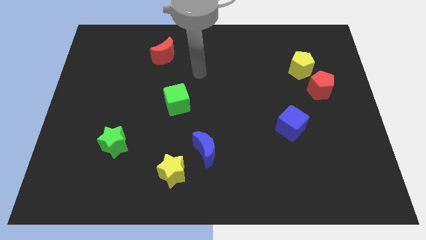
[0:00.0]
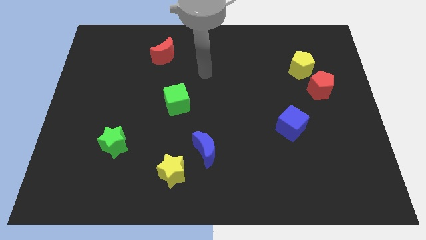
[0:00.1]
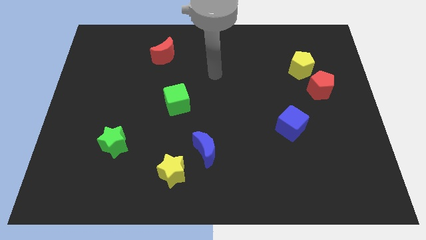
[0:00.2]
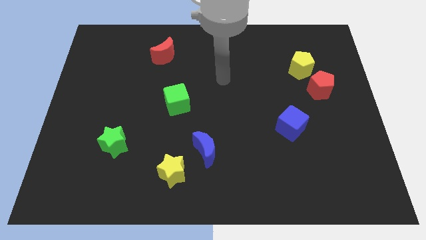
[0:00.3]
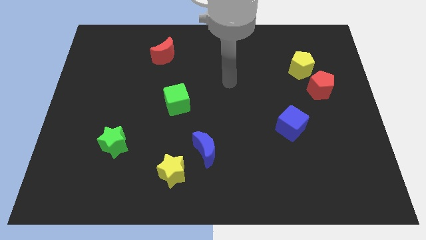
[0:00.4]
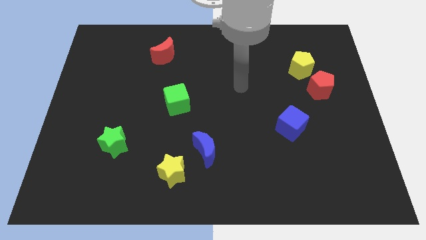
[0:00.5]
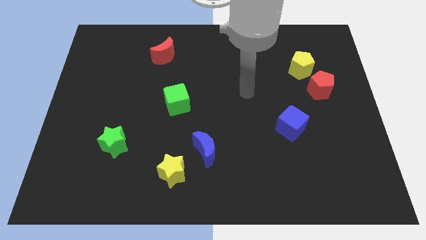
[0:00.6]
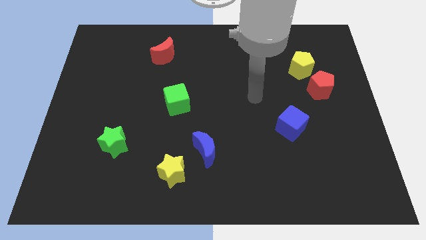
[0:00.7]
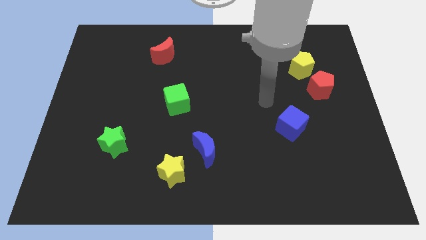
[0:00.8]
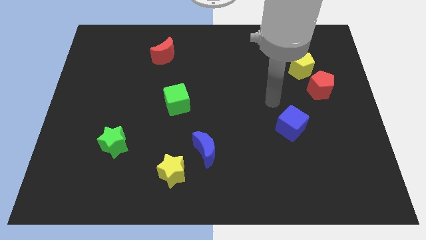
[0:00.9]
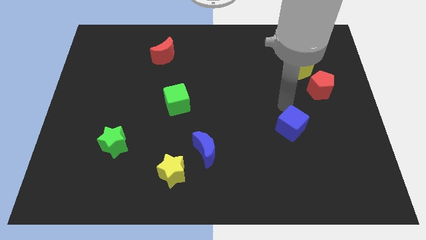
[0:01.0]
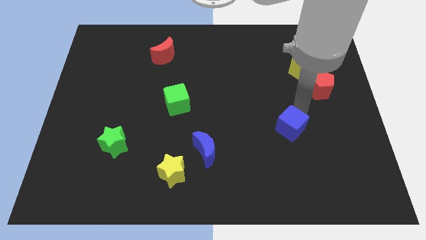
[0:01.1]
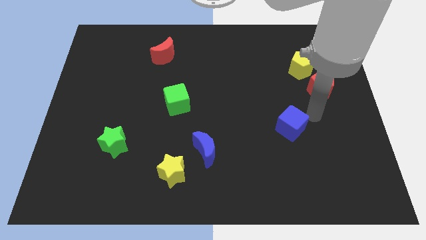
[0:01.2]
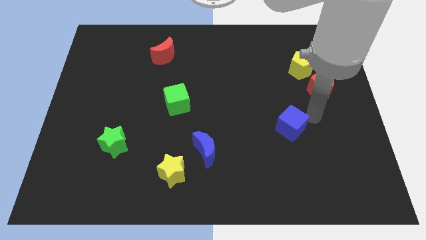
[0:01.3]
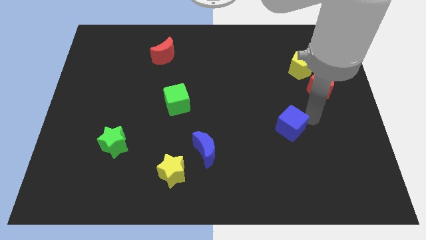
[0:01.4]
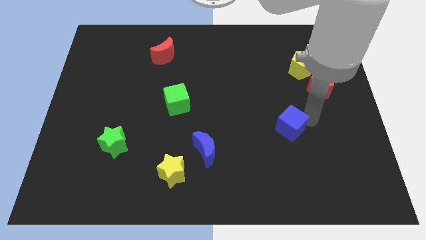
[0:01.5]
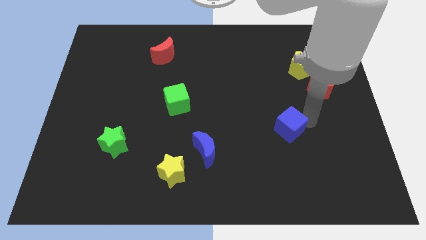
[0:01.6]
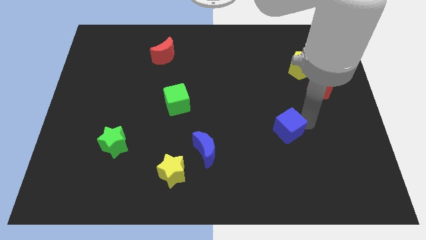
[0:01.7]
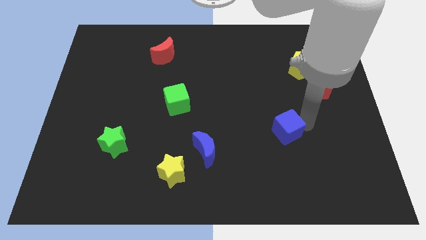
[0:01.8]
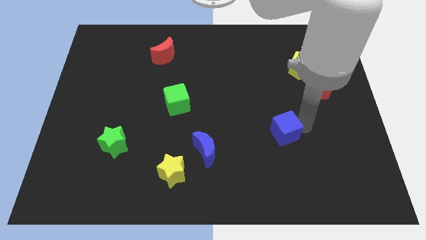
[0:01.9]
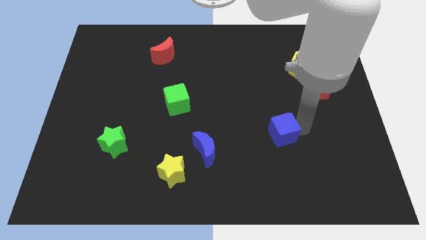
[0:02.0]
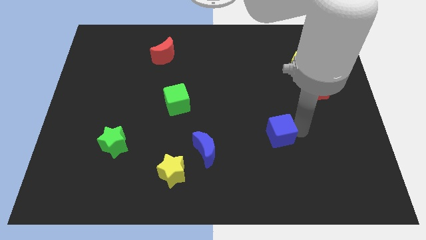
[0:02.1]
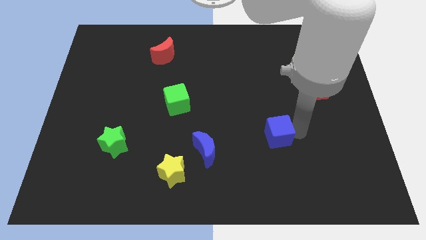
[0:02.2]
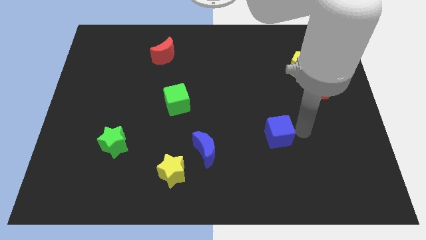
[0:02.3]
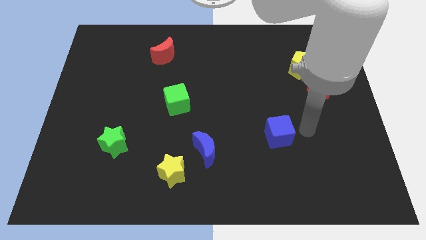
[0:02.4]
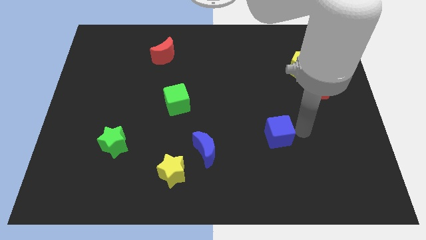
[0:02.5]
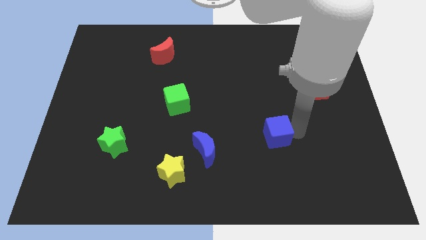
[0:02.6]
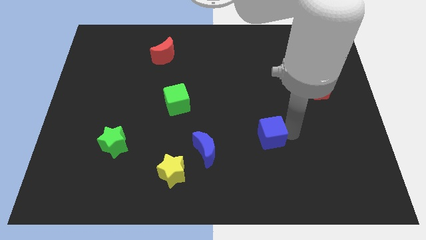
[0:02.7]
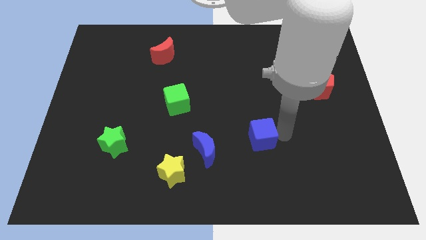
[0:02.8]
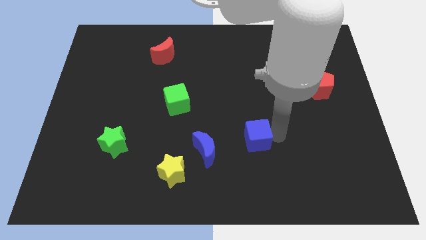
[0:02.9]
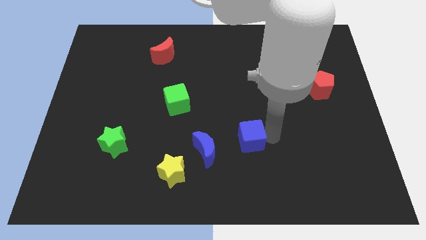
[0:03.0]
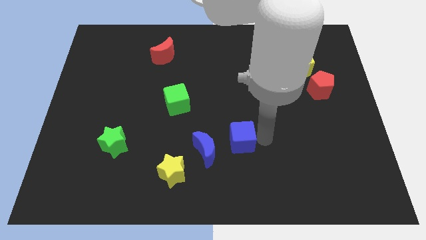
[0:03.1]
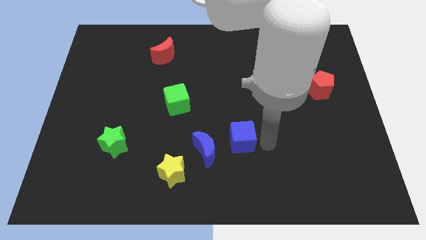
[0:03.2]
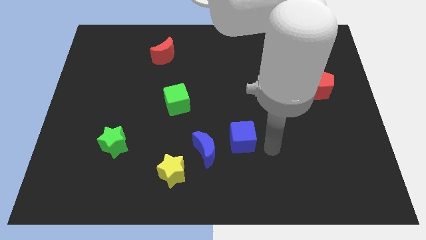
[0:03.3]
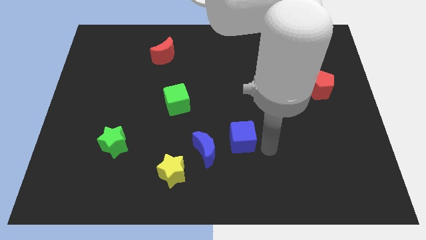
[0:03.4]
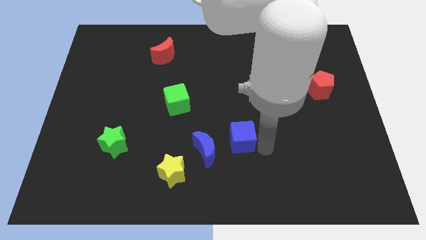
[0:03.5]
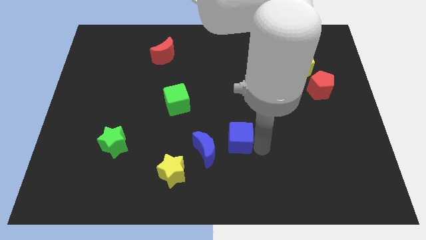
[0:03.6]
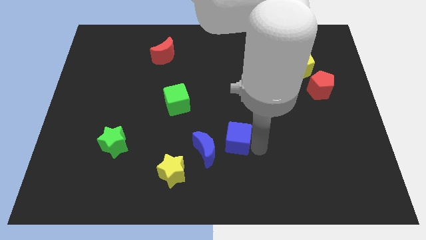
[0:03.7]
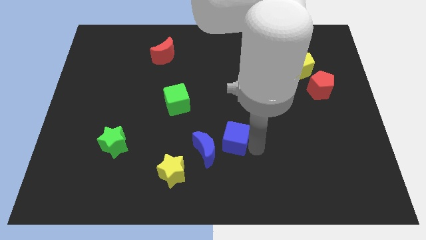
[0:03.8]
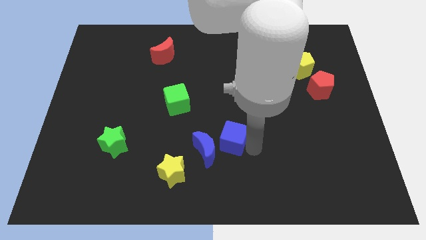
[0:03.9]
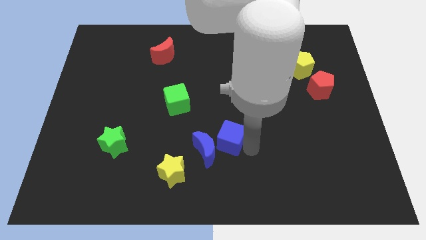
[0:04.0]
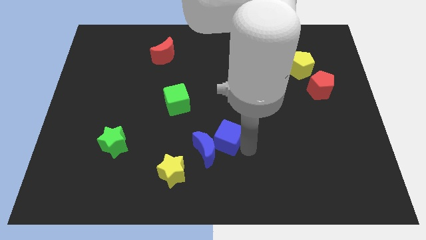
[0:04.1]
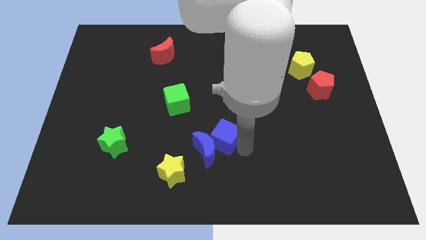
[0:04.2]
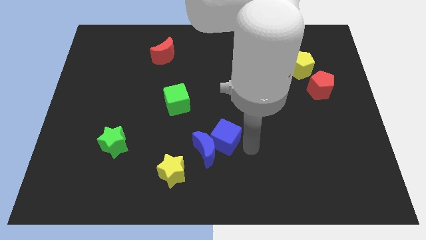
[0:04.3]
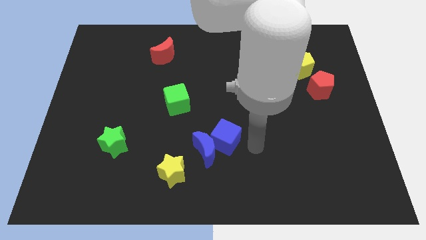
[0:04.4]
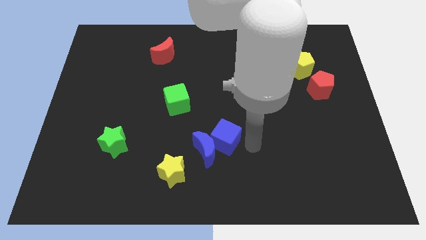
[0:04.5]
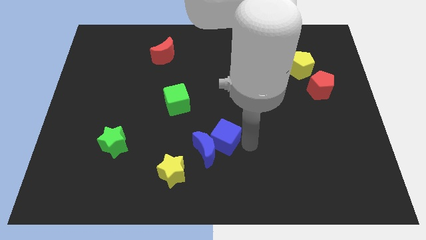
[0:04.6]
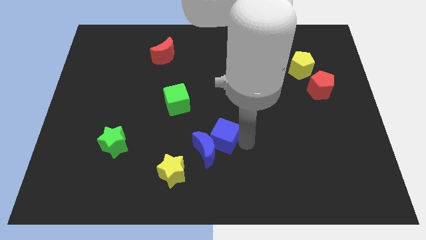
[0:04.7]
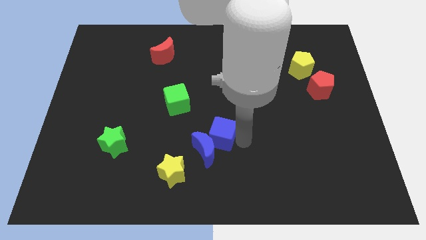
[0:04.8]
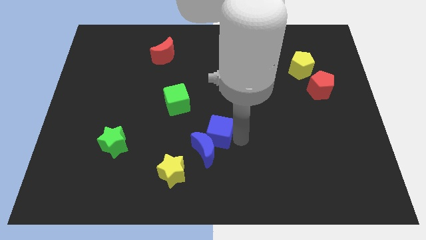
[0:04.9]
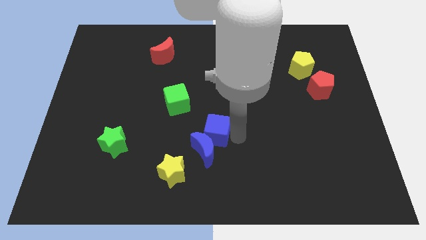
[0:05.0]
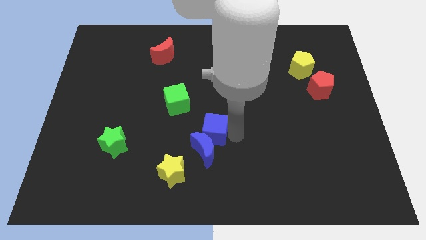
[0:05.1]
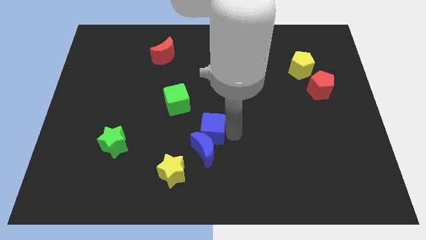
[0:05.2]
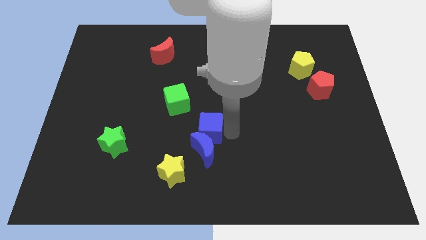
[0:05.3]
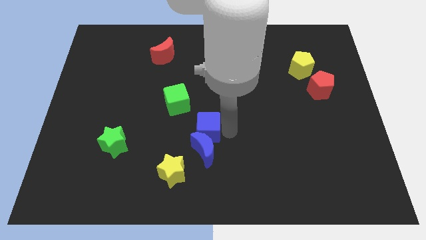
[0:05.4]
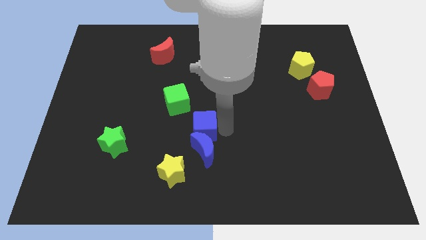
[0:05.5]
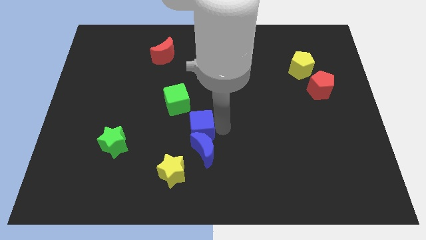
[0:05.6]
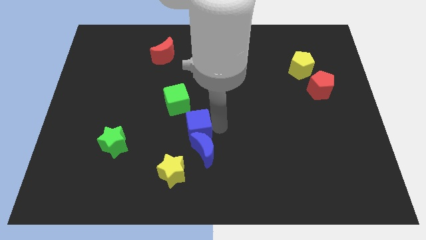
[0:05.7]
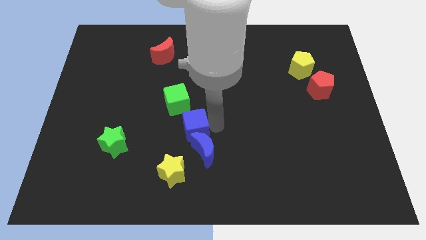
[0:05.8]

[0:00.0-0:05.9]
put the blue cube to the bottom of the green cube

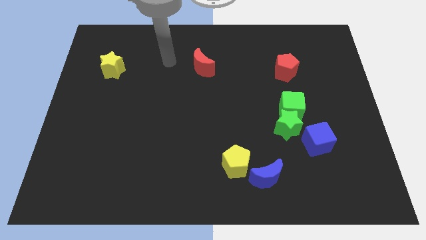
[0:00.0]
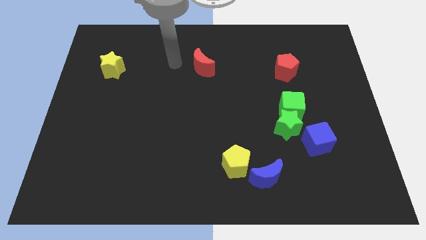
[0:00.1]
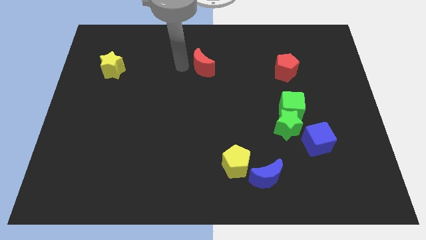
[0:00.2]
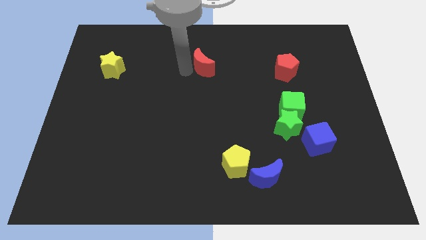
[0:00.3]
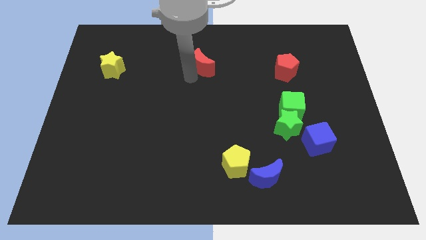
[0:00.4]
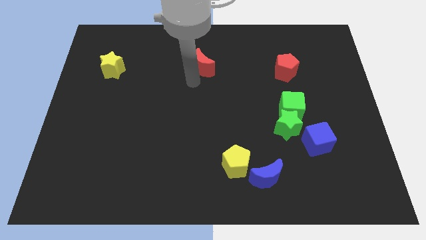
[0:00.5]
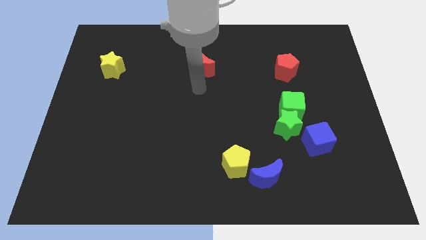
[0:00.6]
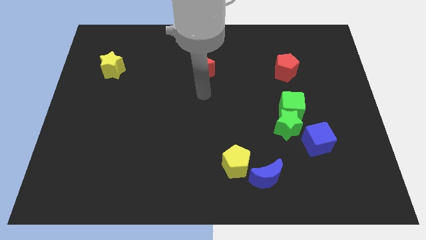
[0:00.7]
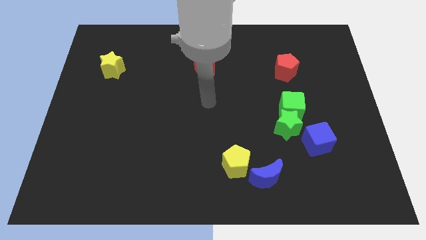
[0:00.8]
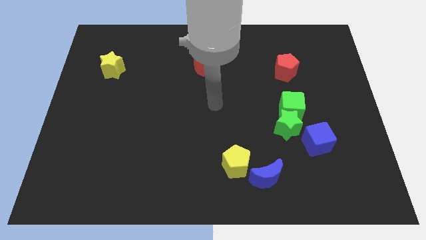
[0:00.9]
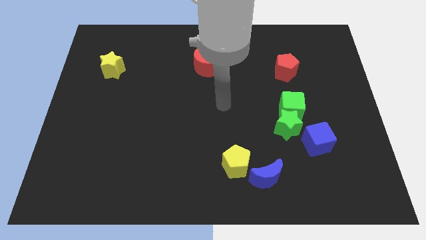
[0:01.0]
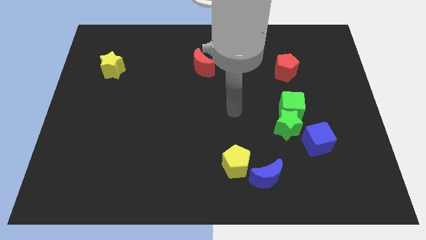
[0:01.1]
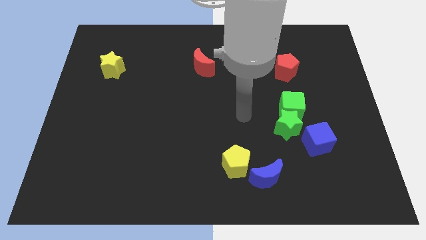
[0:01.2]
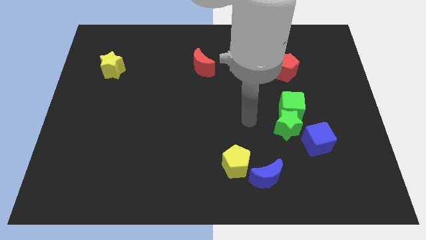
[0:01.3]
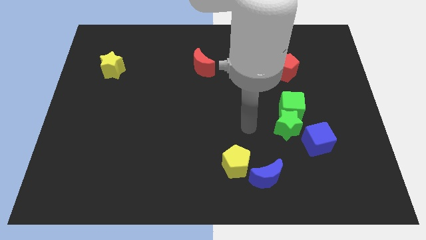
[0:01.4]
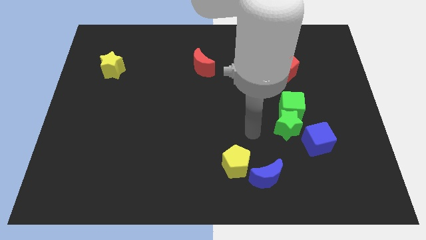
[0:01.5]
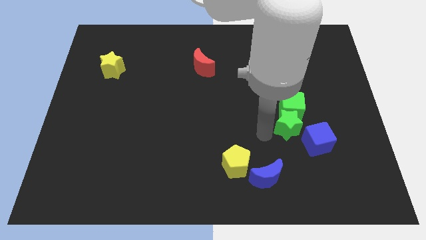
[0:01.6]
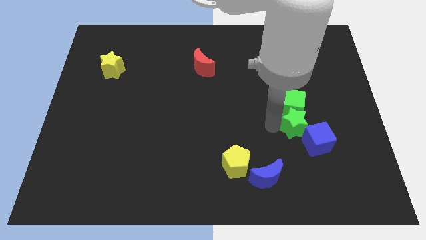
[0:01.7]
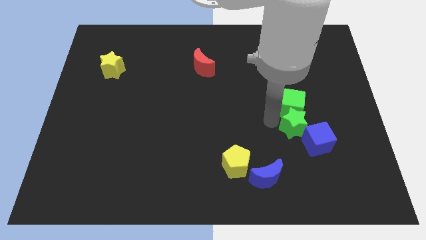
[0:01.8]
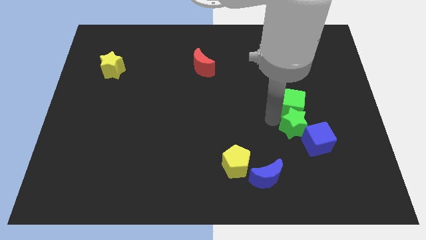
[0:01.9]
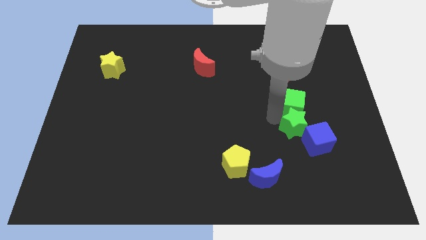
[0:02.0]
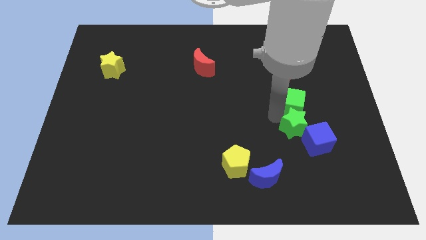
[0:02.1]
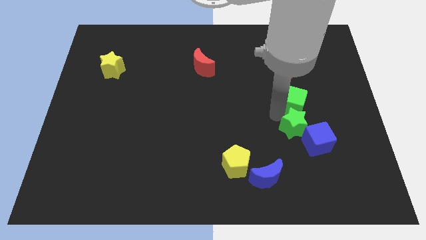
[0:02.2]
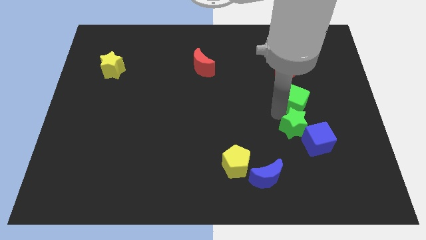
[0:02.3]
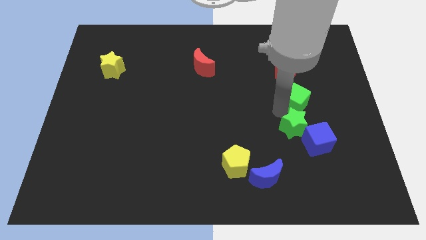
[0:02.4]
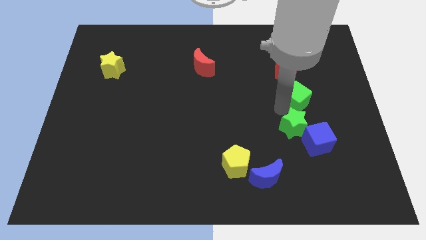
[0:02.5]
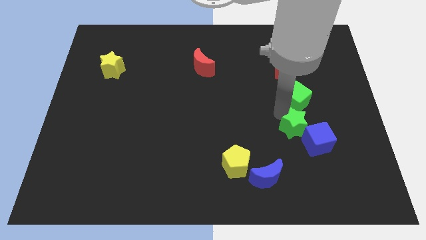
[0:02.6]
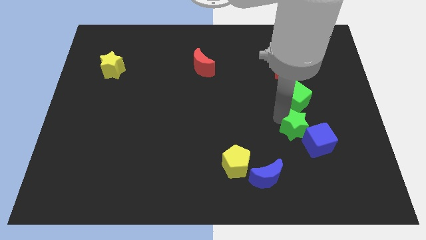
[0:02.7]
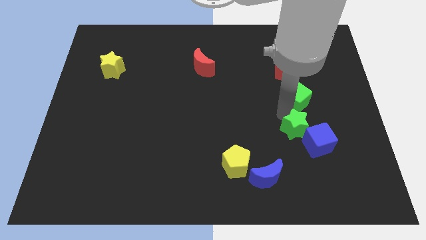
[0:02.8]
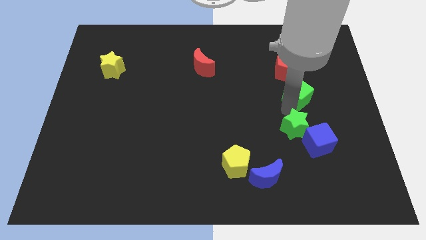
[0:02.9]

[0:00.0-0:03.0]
put the green cube to the bottom right side of the red pentagon
